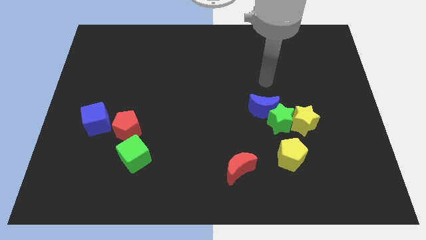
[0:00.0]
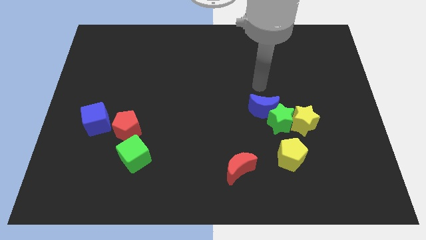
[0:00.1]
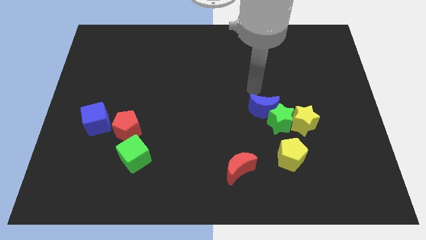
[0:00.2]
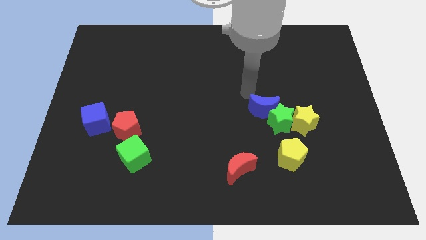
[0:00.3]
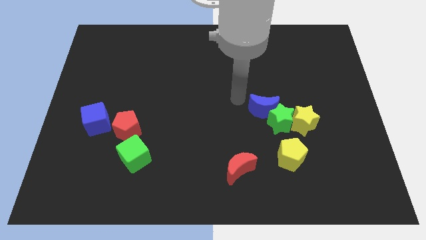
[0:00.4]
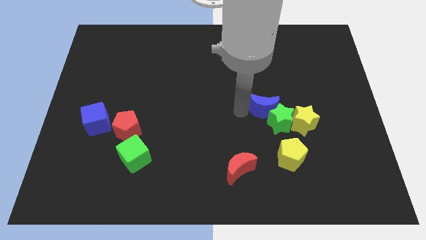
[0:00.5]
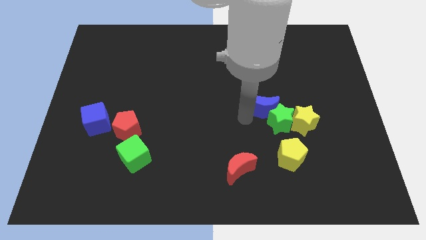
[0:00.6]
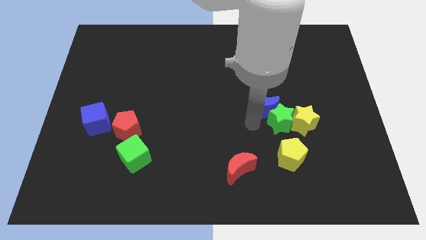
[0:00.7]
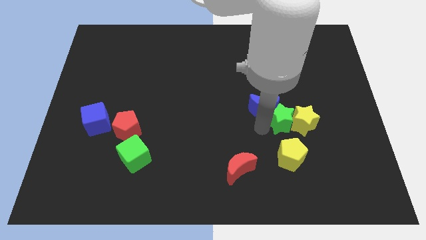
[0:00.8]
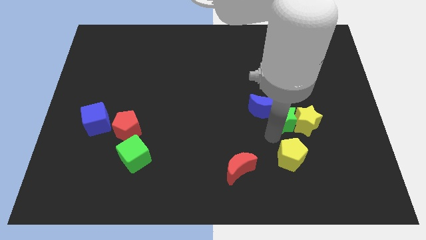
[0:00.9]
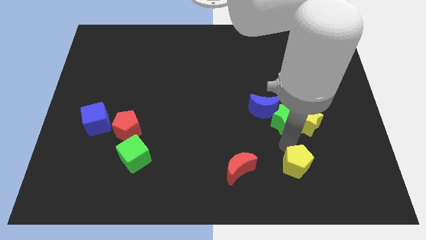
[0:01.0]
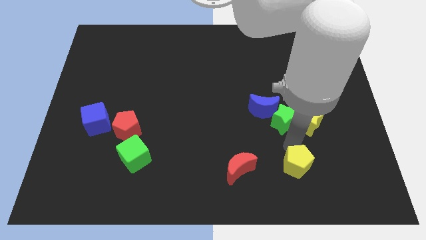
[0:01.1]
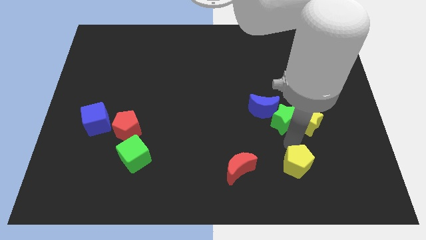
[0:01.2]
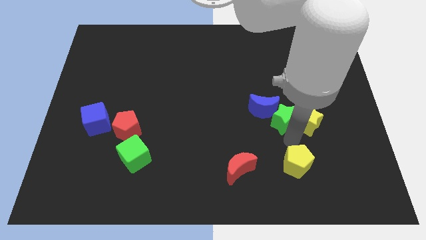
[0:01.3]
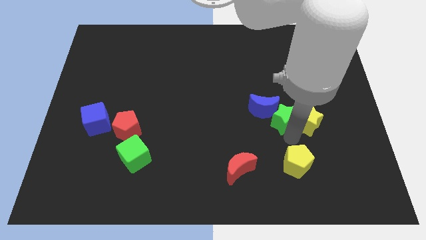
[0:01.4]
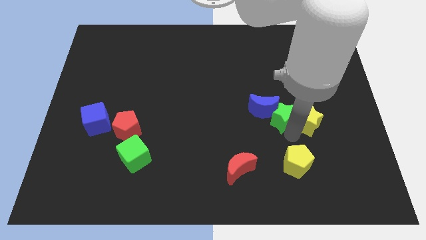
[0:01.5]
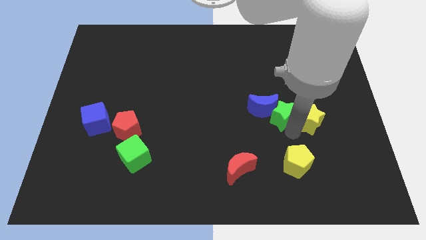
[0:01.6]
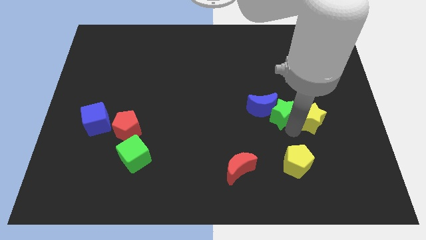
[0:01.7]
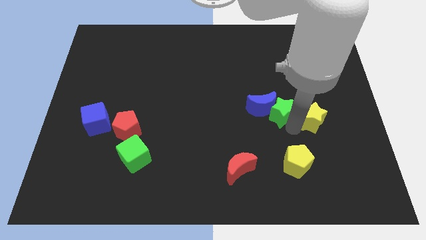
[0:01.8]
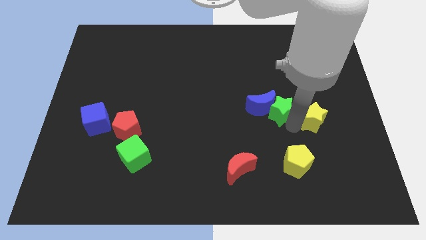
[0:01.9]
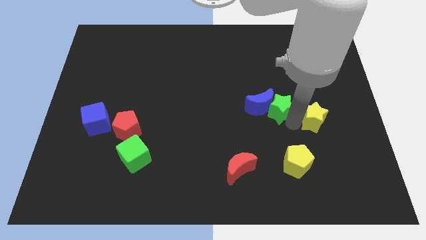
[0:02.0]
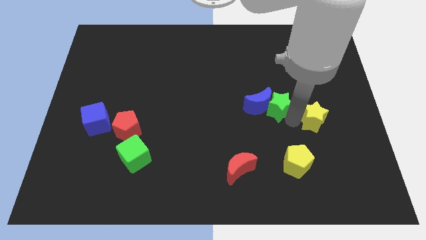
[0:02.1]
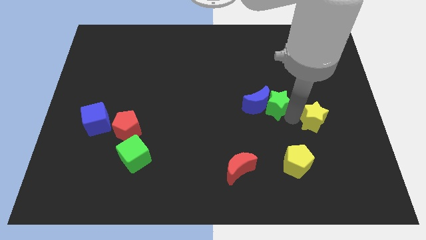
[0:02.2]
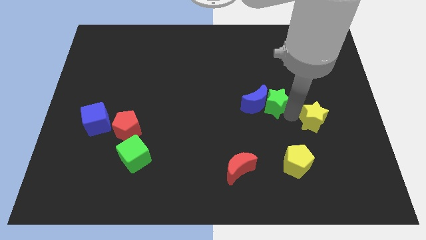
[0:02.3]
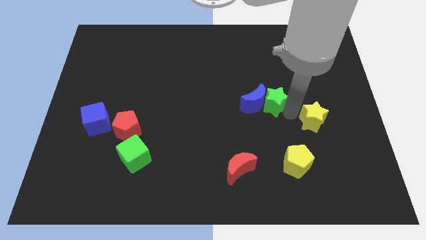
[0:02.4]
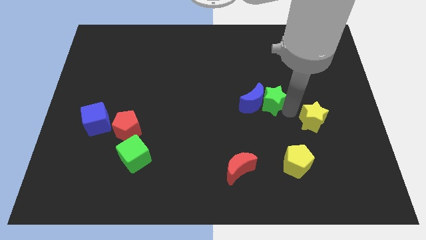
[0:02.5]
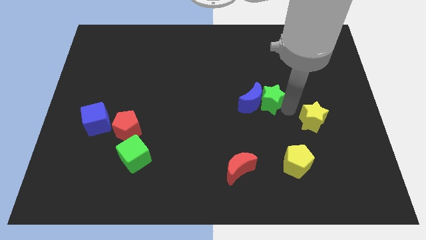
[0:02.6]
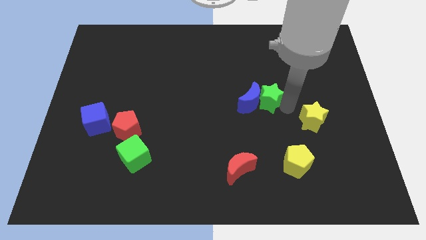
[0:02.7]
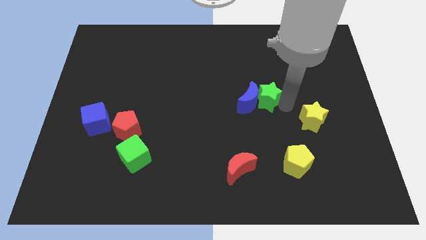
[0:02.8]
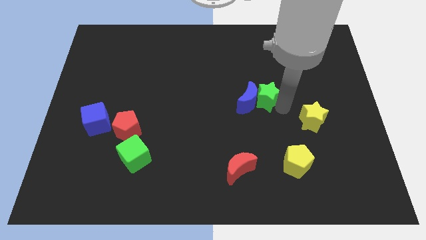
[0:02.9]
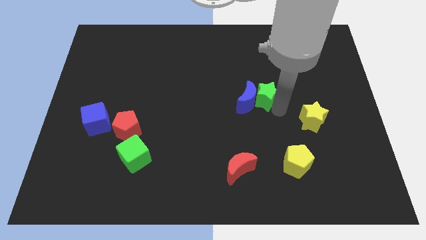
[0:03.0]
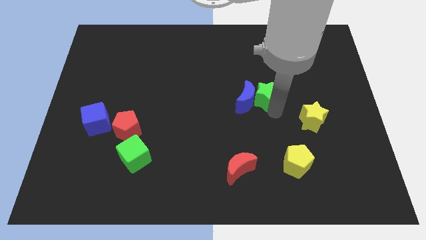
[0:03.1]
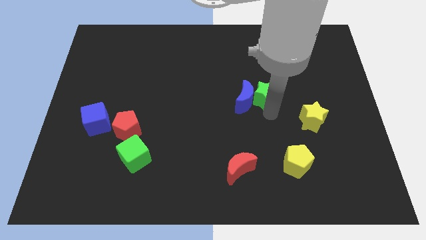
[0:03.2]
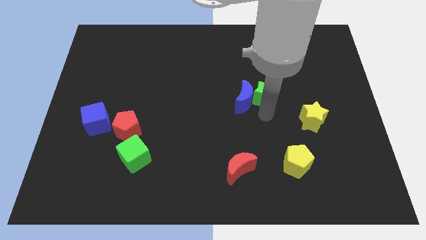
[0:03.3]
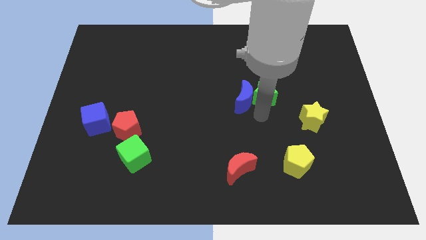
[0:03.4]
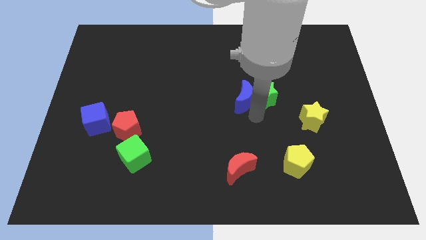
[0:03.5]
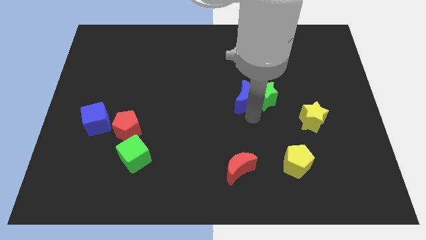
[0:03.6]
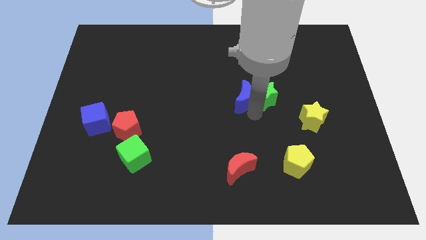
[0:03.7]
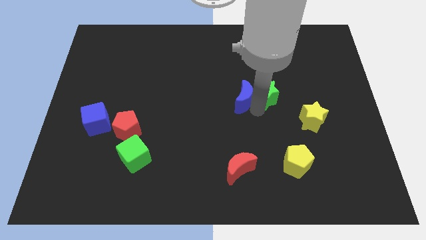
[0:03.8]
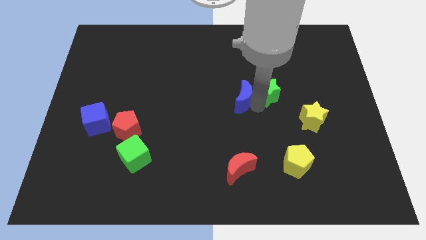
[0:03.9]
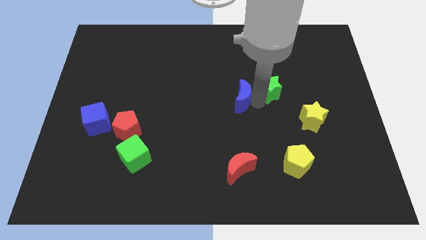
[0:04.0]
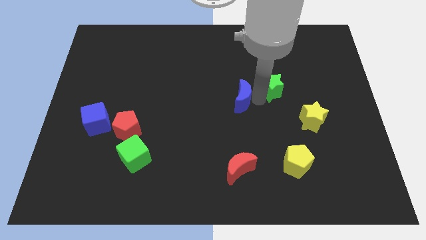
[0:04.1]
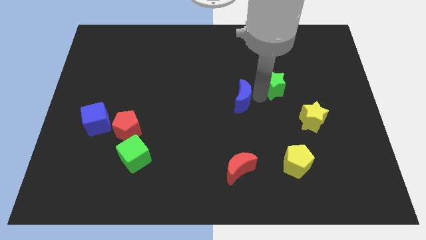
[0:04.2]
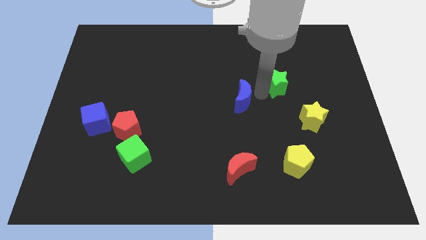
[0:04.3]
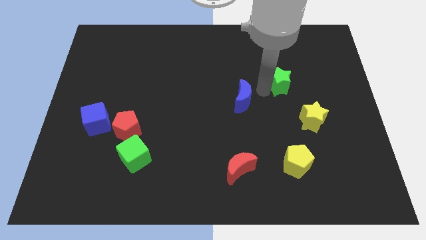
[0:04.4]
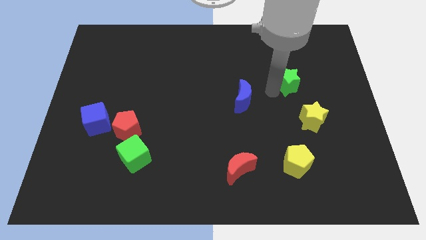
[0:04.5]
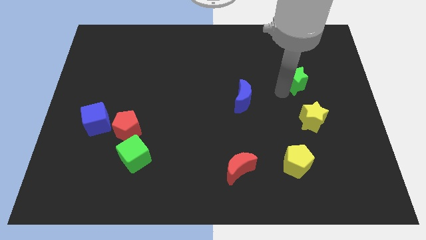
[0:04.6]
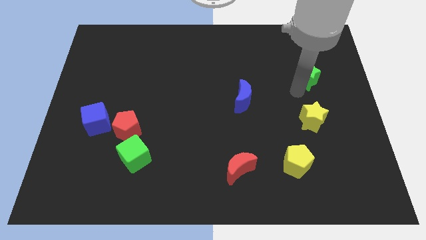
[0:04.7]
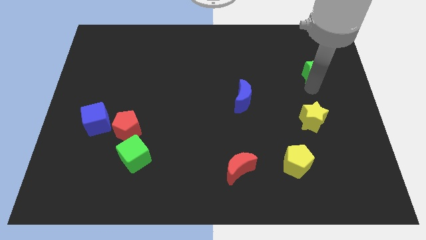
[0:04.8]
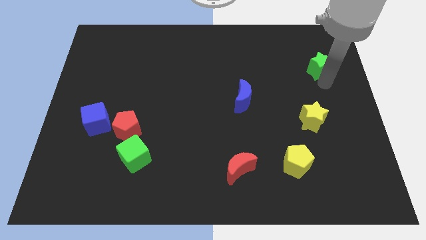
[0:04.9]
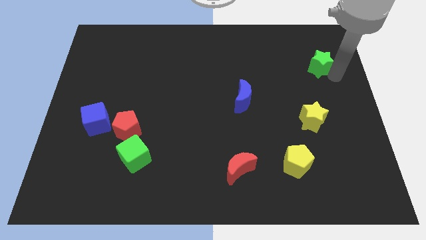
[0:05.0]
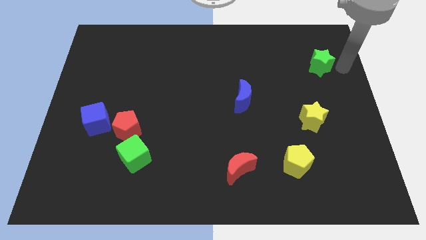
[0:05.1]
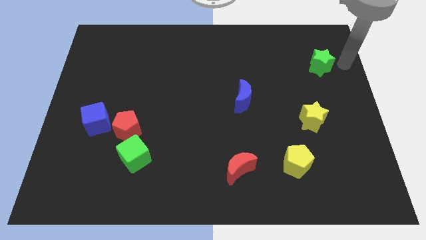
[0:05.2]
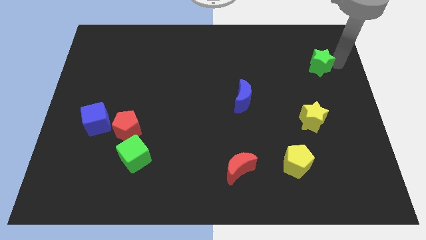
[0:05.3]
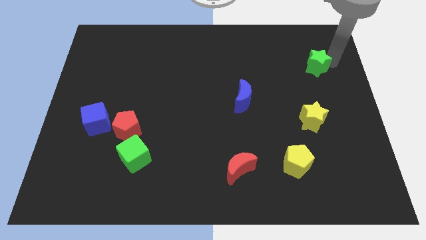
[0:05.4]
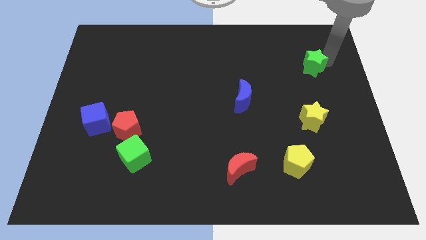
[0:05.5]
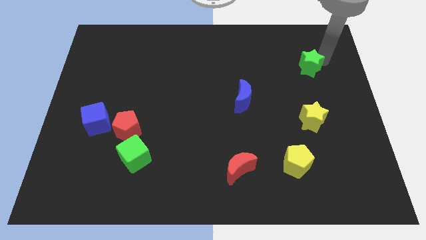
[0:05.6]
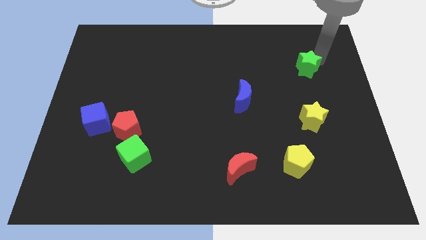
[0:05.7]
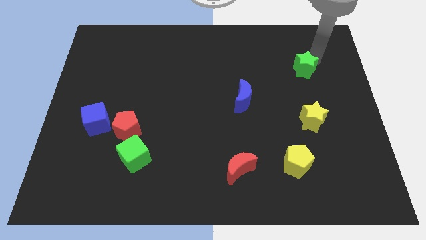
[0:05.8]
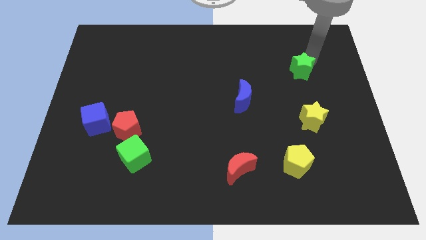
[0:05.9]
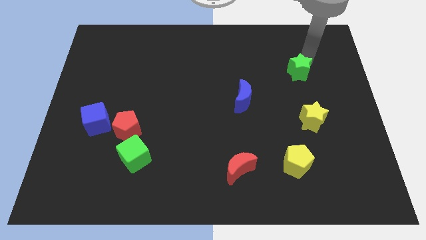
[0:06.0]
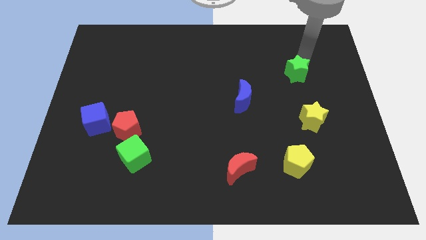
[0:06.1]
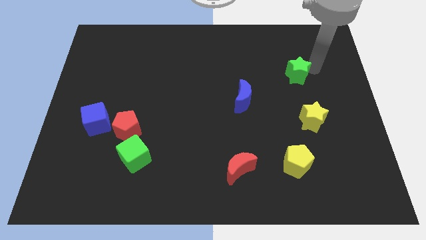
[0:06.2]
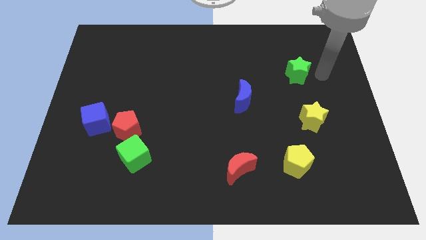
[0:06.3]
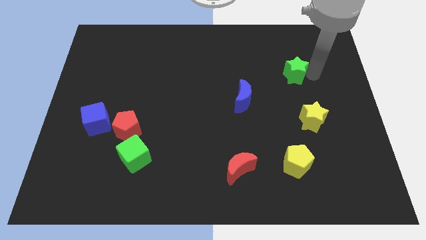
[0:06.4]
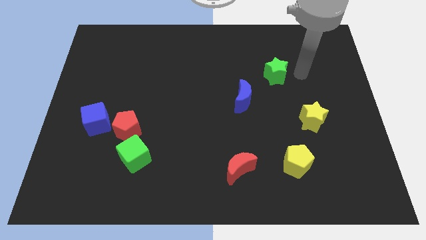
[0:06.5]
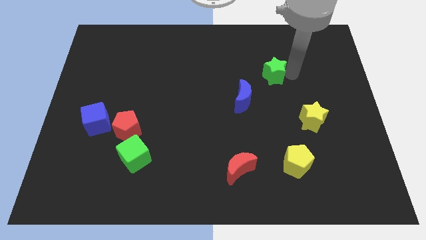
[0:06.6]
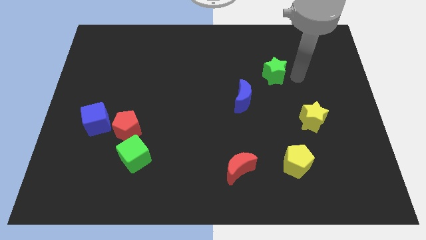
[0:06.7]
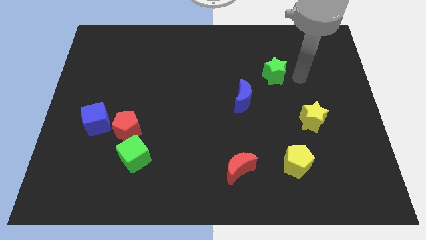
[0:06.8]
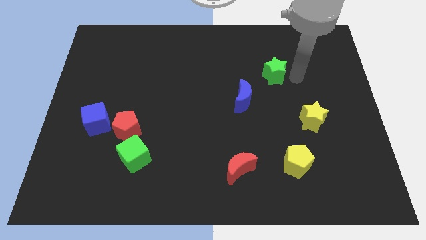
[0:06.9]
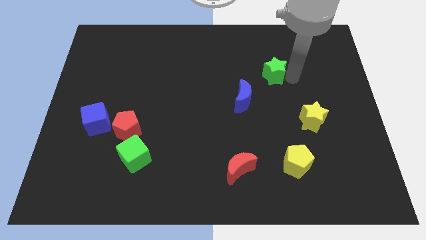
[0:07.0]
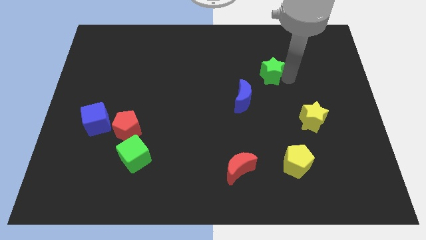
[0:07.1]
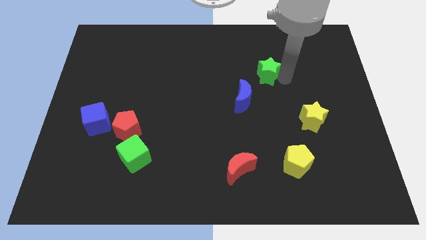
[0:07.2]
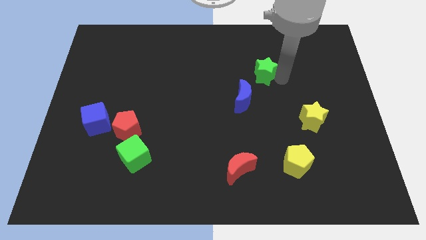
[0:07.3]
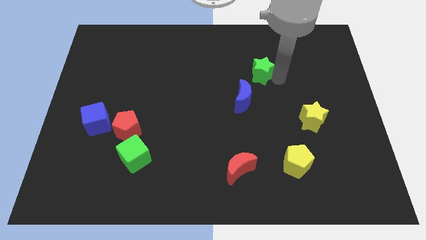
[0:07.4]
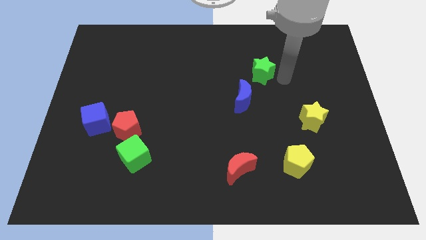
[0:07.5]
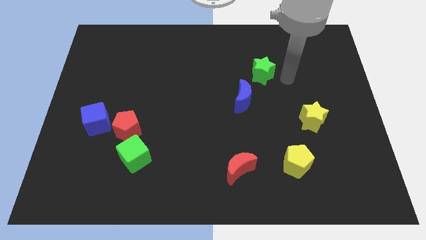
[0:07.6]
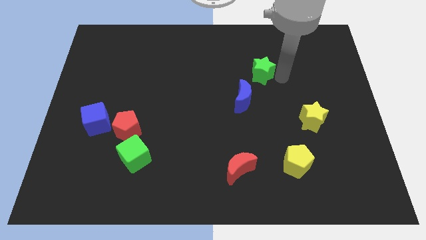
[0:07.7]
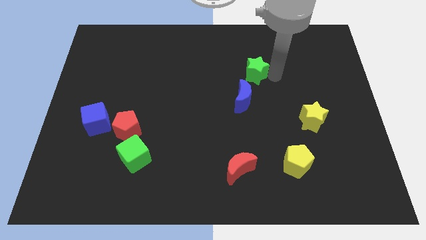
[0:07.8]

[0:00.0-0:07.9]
push the green star to the top side of the blue moon
